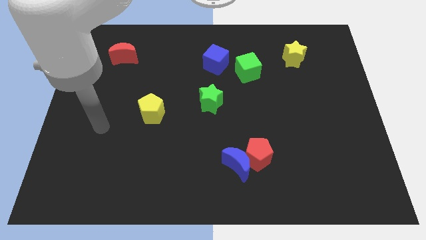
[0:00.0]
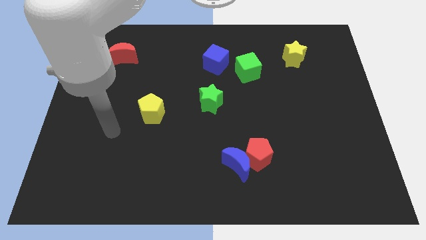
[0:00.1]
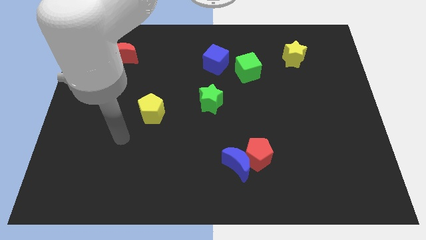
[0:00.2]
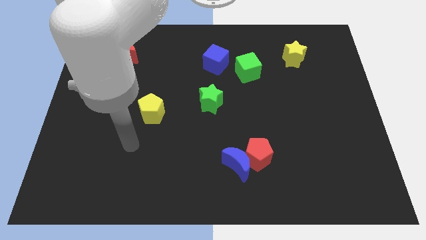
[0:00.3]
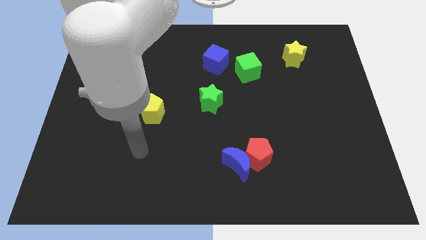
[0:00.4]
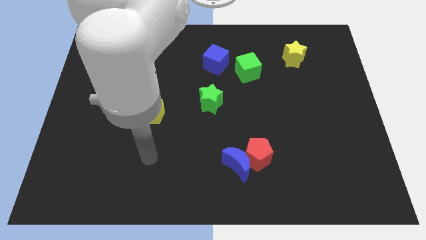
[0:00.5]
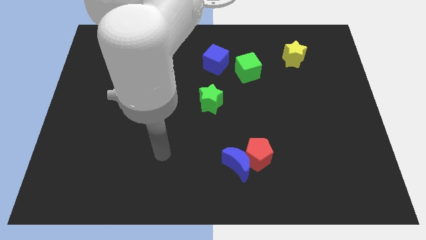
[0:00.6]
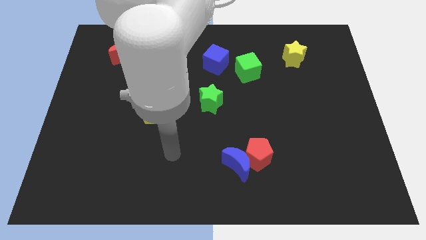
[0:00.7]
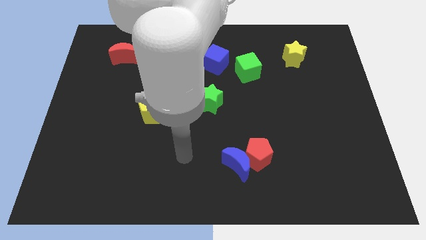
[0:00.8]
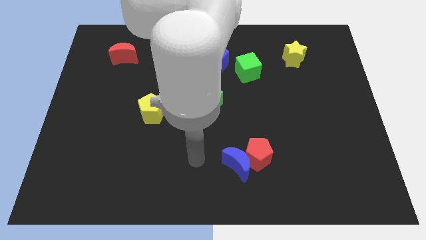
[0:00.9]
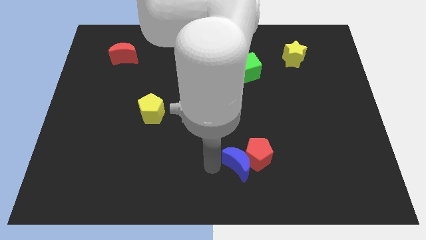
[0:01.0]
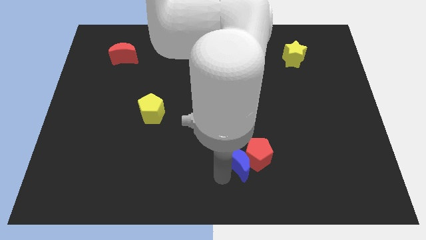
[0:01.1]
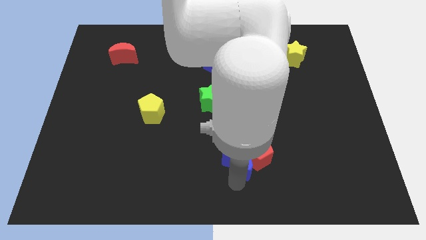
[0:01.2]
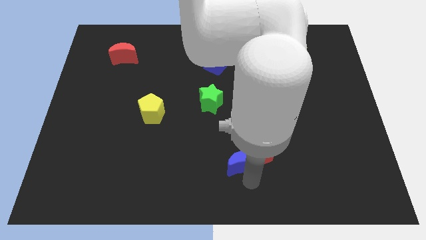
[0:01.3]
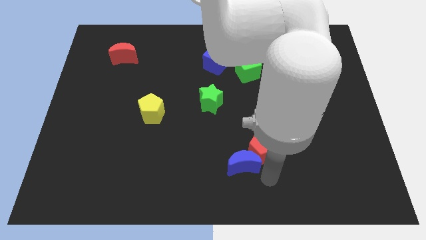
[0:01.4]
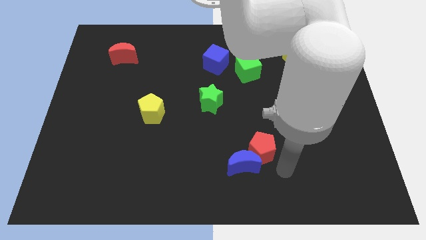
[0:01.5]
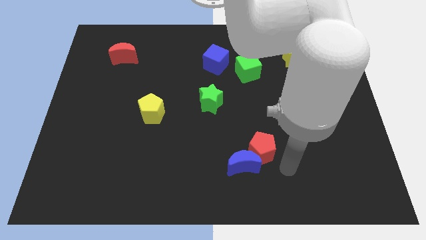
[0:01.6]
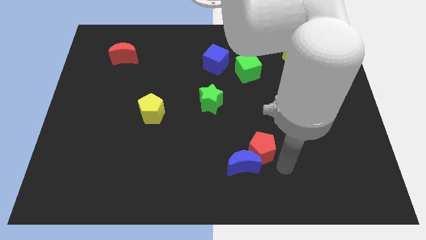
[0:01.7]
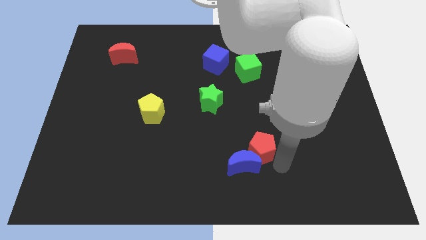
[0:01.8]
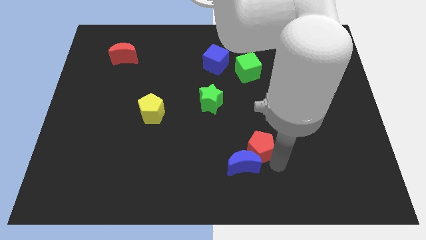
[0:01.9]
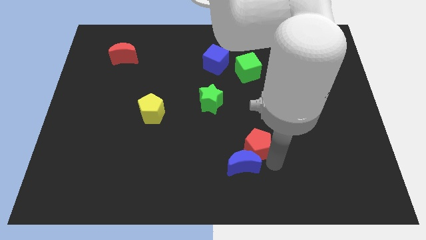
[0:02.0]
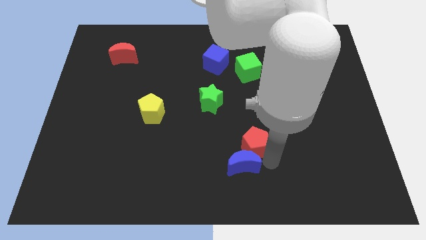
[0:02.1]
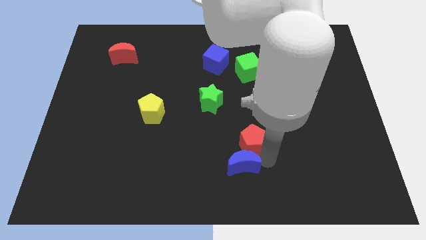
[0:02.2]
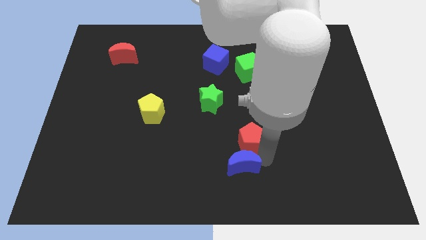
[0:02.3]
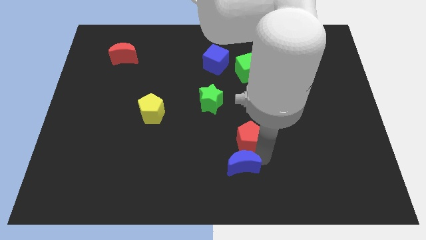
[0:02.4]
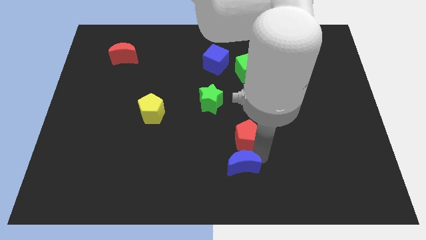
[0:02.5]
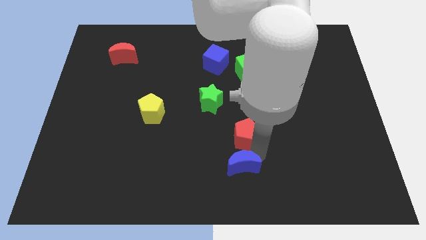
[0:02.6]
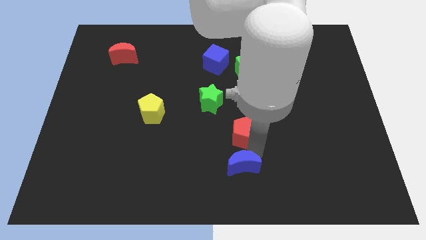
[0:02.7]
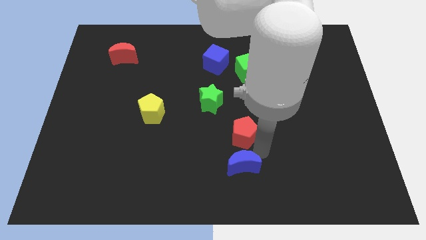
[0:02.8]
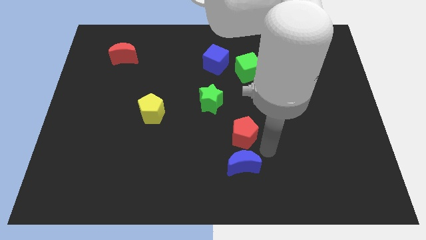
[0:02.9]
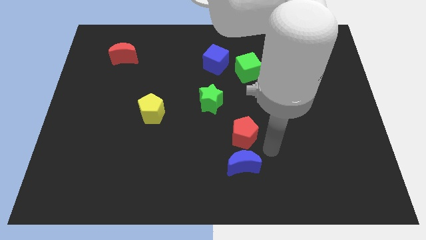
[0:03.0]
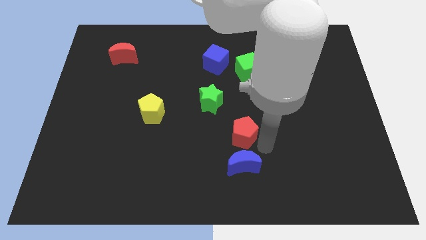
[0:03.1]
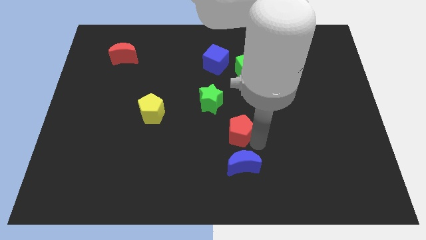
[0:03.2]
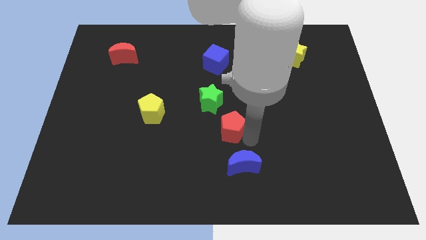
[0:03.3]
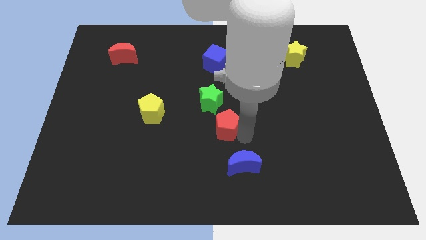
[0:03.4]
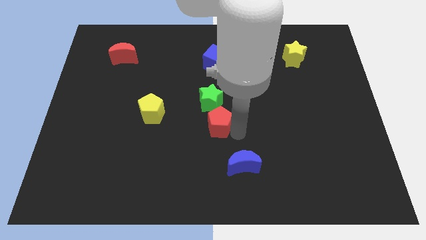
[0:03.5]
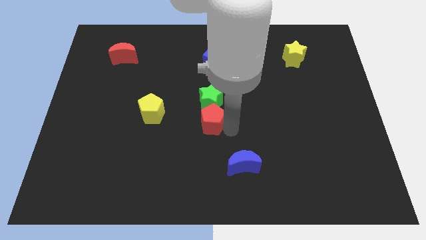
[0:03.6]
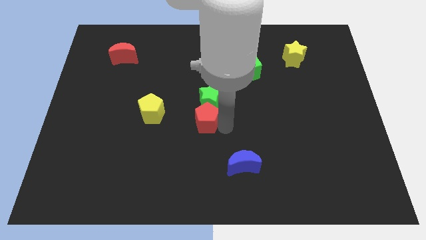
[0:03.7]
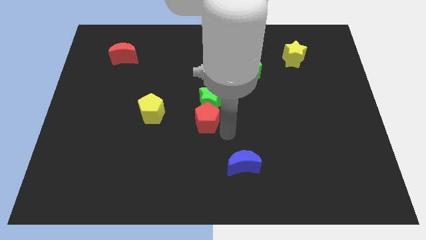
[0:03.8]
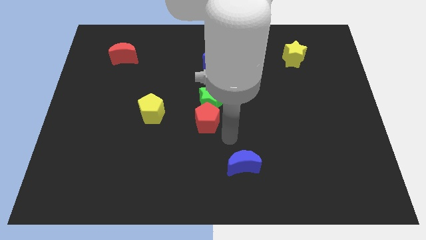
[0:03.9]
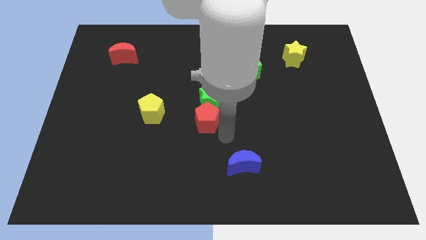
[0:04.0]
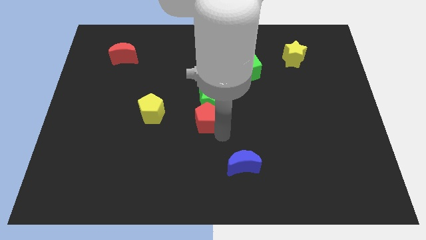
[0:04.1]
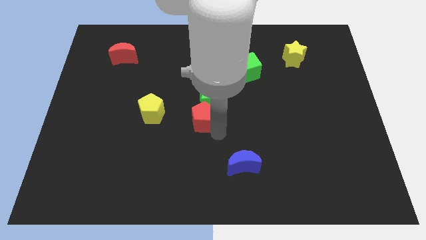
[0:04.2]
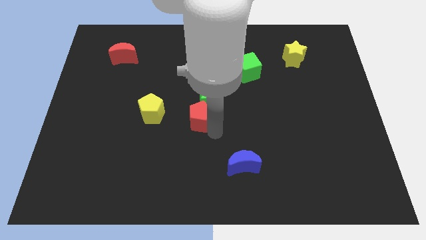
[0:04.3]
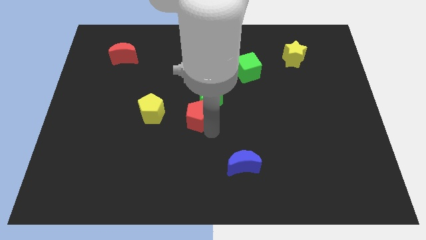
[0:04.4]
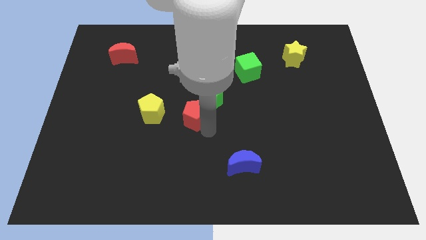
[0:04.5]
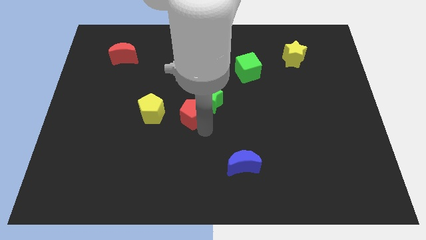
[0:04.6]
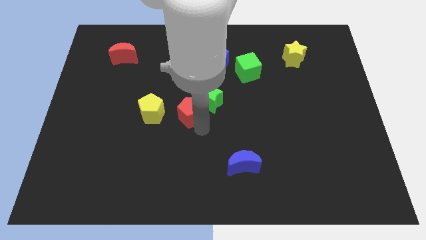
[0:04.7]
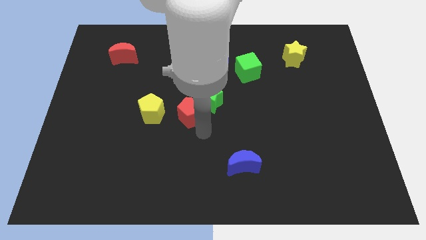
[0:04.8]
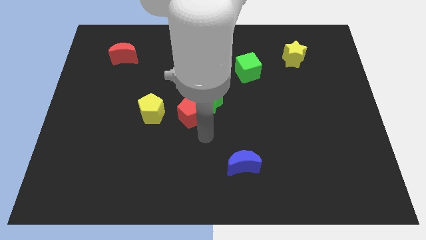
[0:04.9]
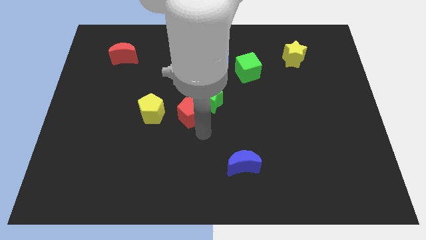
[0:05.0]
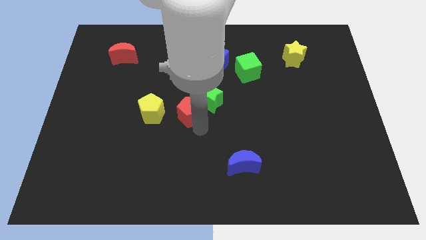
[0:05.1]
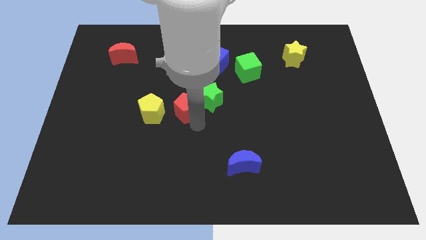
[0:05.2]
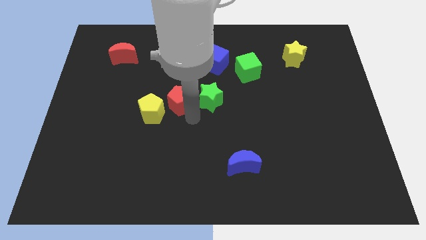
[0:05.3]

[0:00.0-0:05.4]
slide the red pentagon diagonally upwards and left

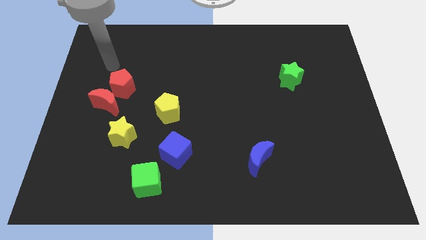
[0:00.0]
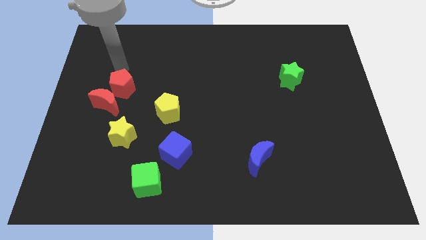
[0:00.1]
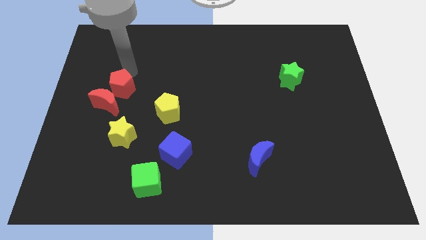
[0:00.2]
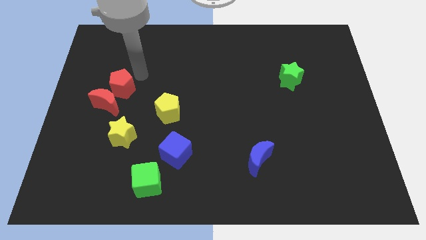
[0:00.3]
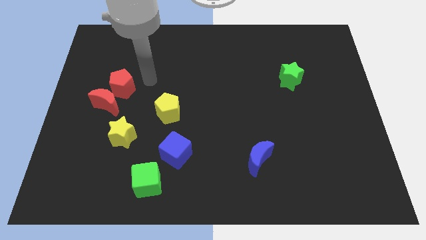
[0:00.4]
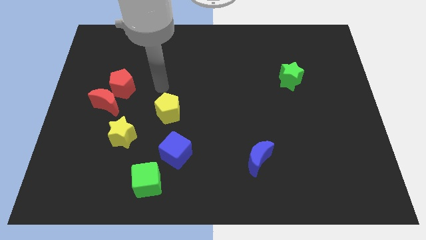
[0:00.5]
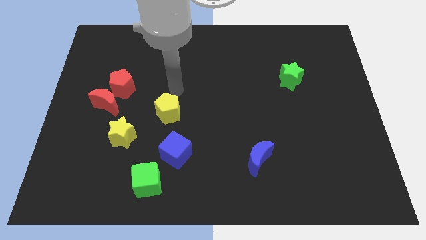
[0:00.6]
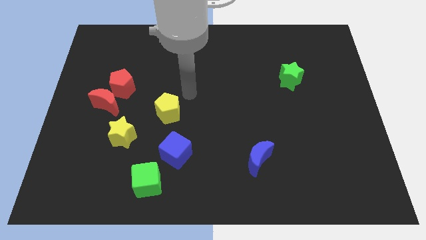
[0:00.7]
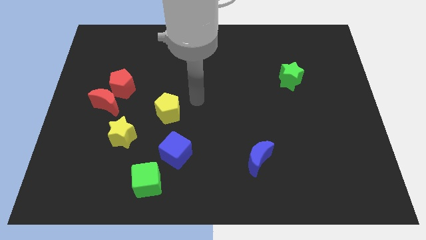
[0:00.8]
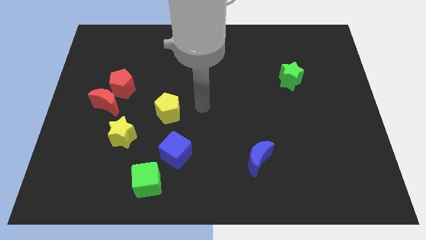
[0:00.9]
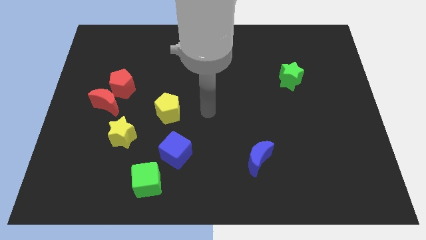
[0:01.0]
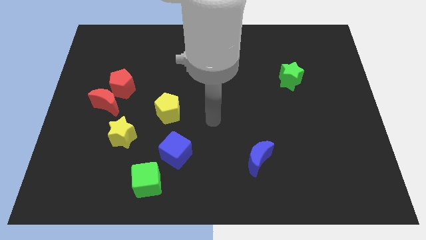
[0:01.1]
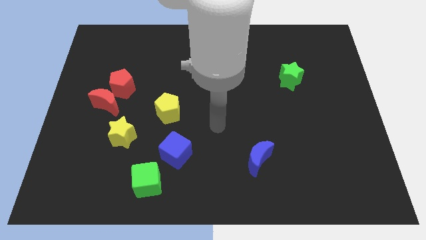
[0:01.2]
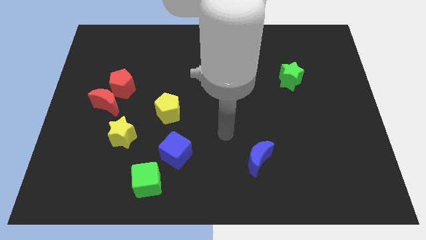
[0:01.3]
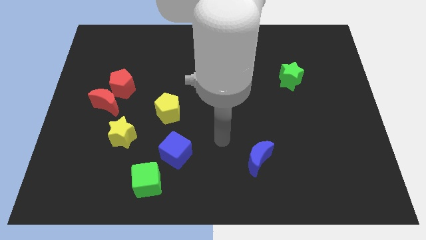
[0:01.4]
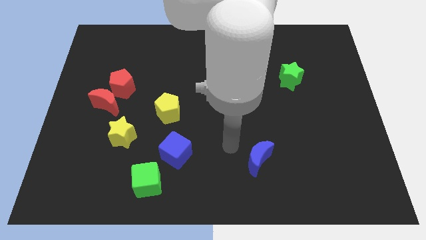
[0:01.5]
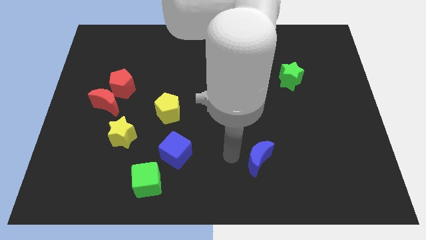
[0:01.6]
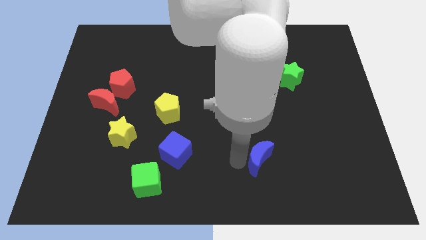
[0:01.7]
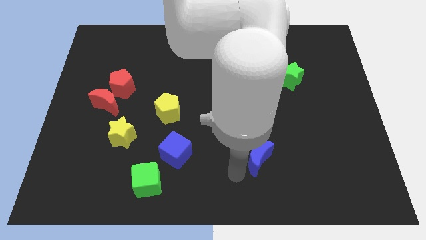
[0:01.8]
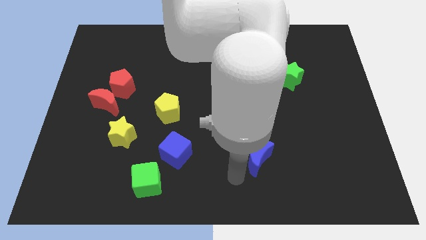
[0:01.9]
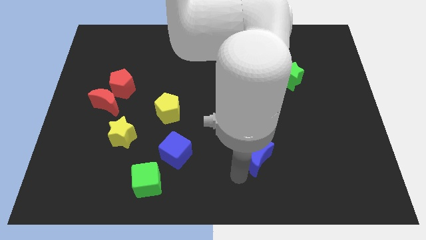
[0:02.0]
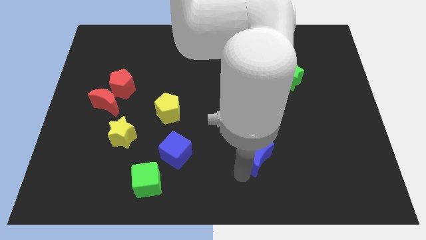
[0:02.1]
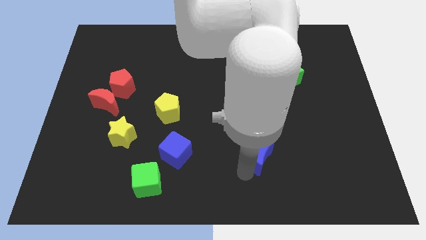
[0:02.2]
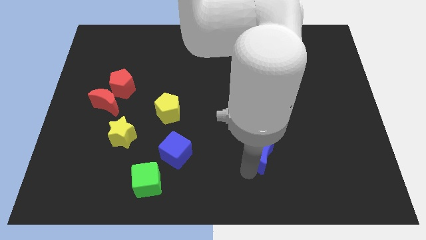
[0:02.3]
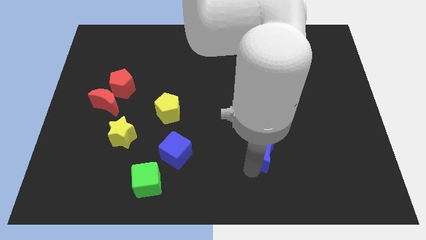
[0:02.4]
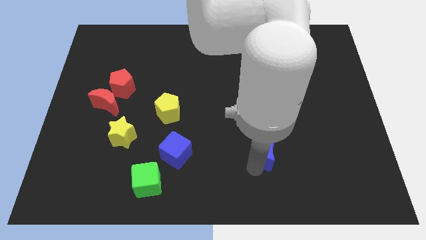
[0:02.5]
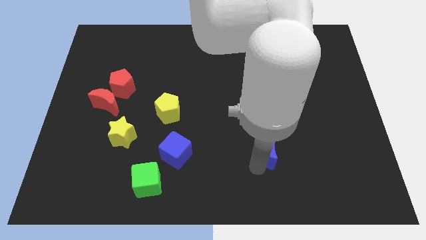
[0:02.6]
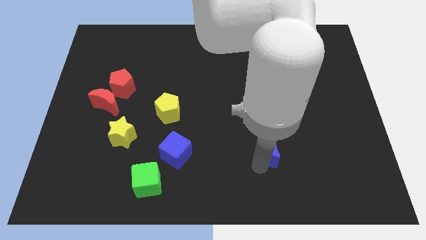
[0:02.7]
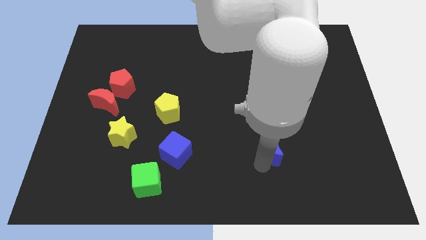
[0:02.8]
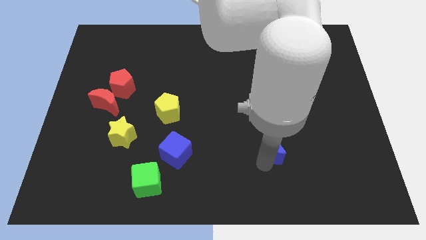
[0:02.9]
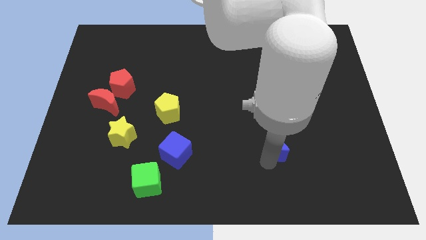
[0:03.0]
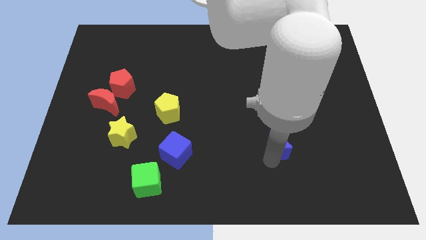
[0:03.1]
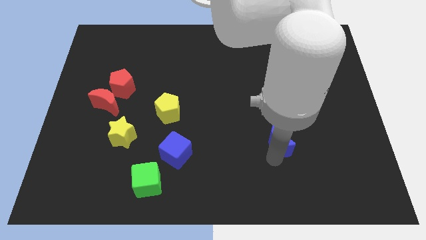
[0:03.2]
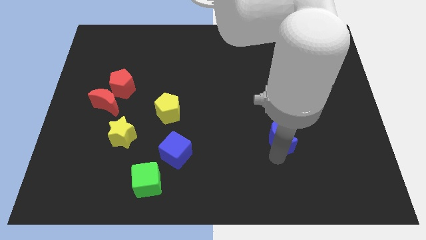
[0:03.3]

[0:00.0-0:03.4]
move the blue moon diagonally up and to the right slightly
